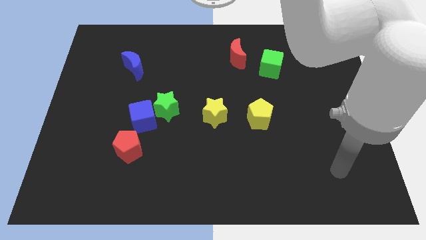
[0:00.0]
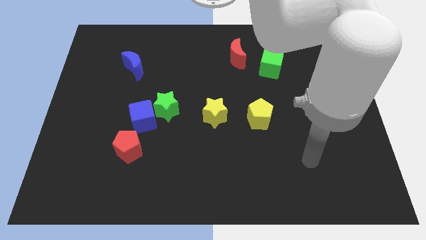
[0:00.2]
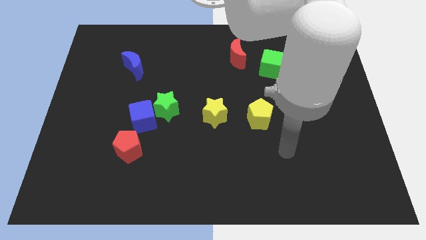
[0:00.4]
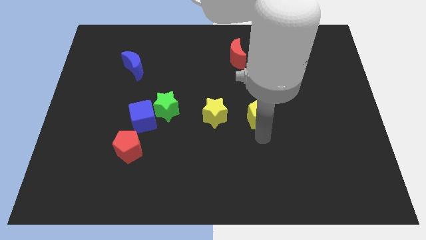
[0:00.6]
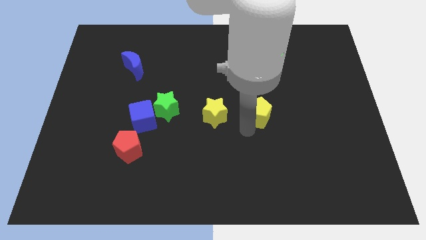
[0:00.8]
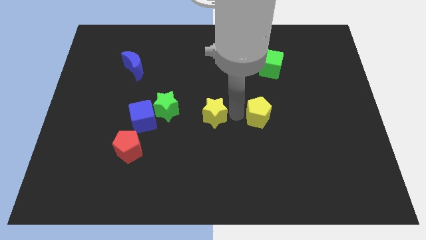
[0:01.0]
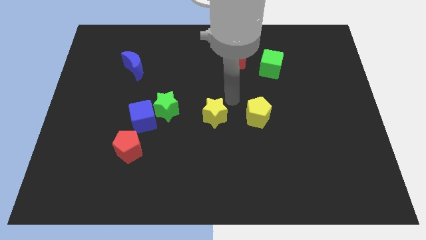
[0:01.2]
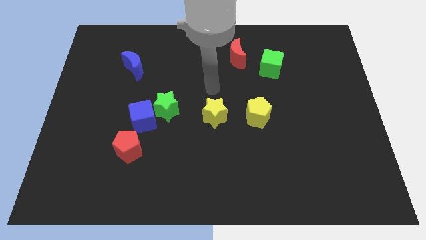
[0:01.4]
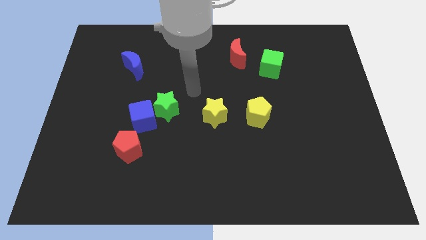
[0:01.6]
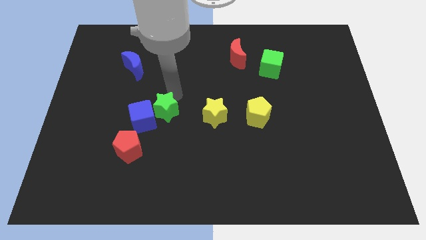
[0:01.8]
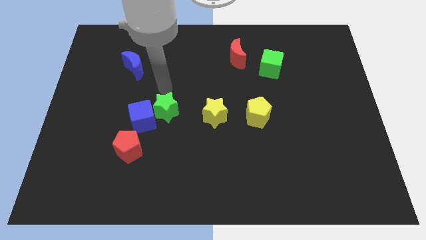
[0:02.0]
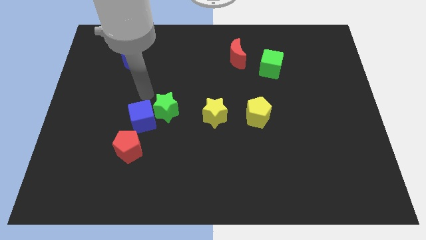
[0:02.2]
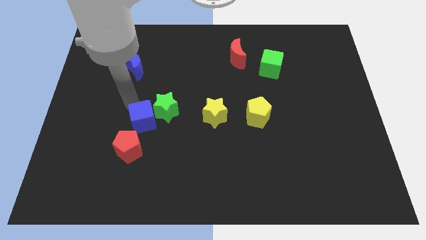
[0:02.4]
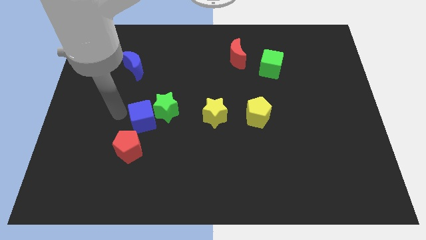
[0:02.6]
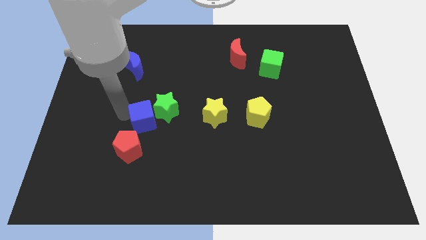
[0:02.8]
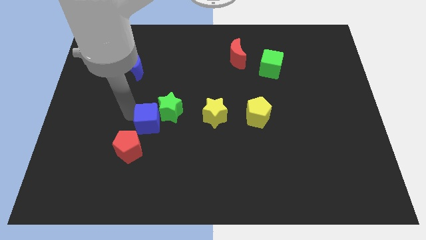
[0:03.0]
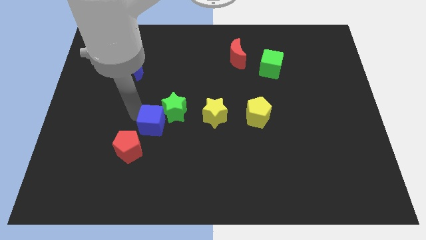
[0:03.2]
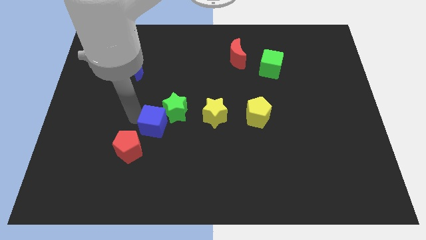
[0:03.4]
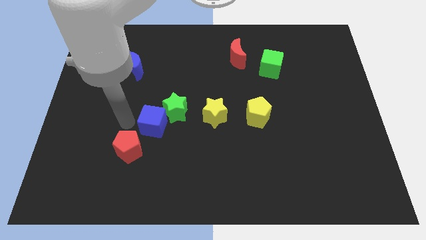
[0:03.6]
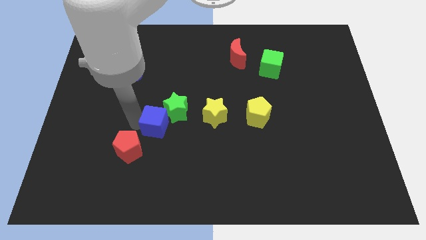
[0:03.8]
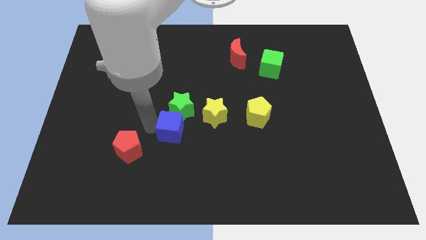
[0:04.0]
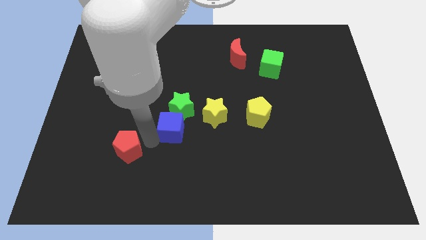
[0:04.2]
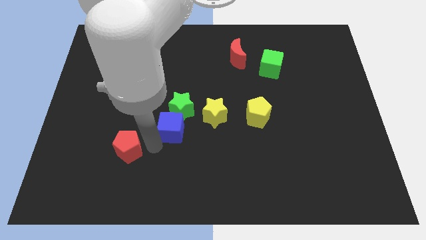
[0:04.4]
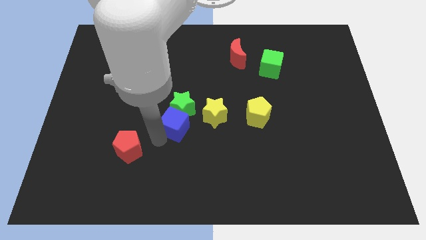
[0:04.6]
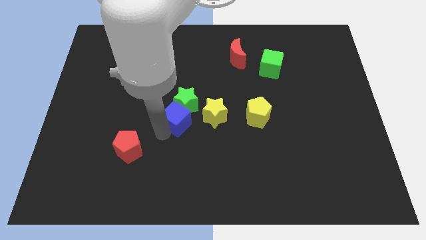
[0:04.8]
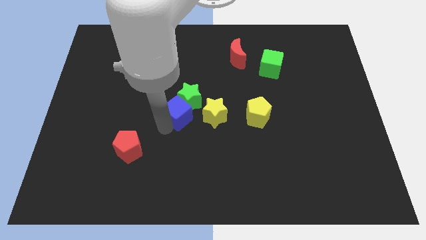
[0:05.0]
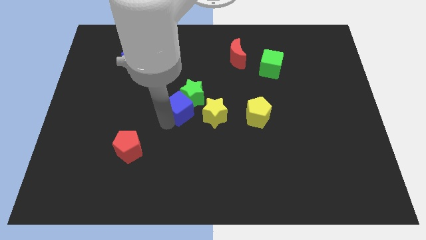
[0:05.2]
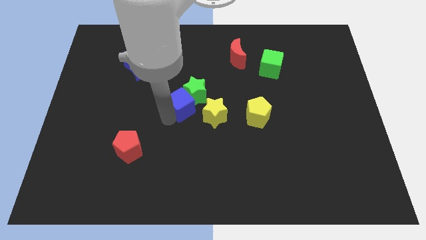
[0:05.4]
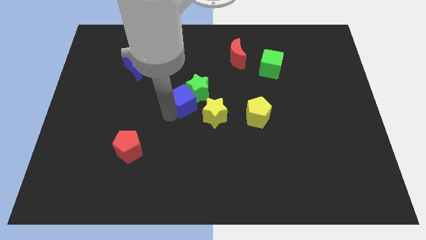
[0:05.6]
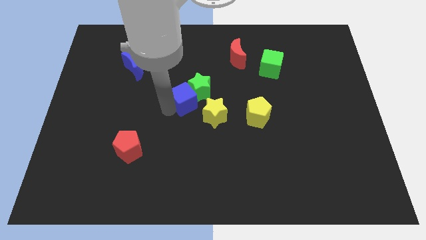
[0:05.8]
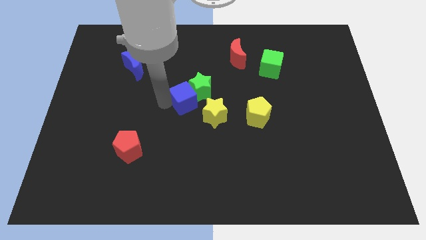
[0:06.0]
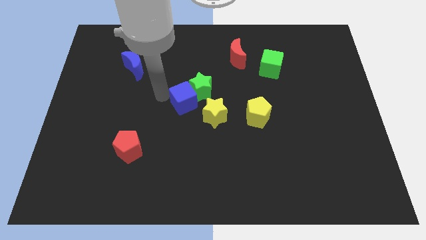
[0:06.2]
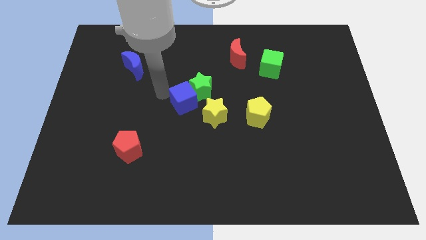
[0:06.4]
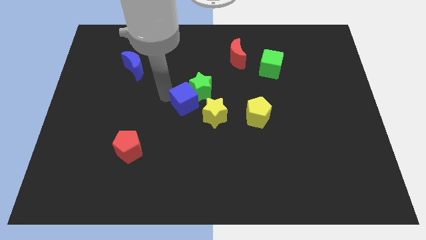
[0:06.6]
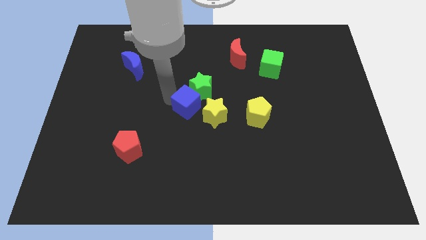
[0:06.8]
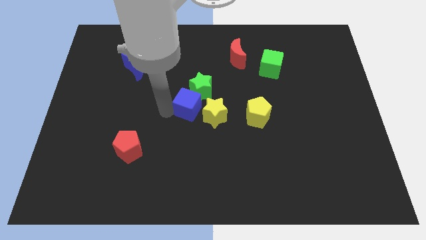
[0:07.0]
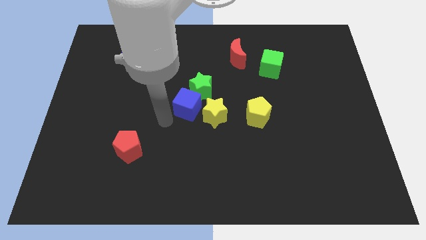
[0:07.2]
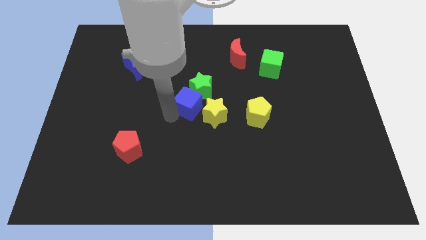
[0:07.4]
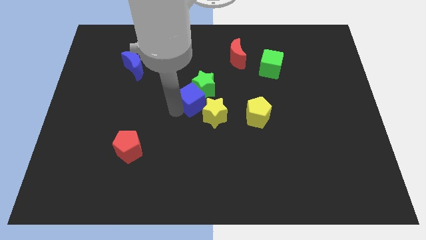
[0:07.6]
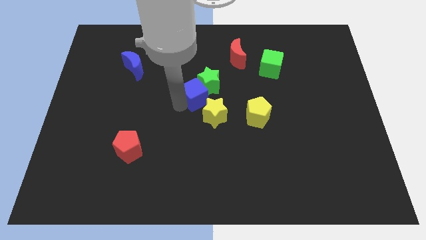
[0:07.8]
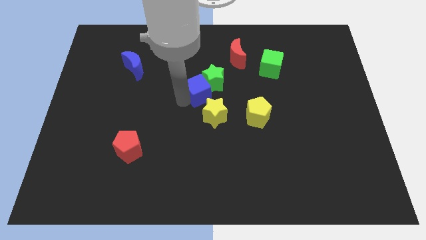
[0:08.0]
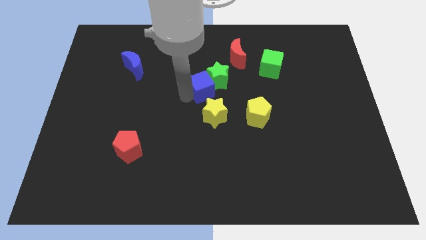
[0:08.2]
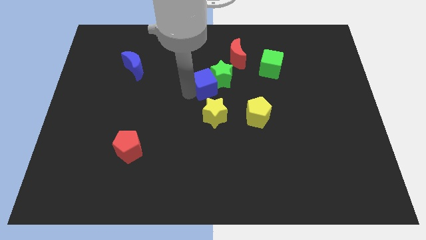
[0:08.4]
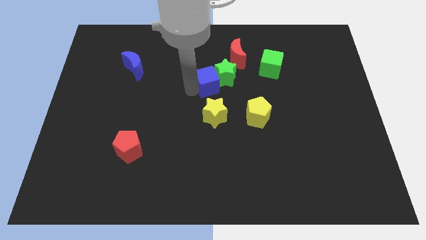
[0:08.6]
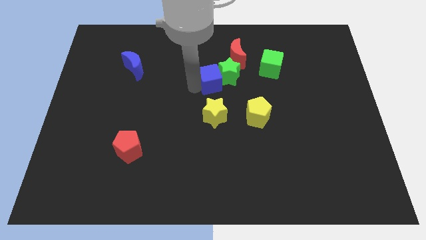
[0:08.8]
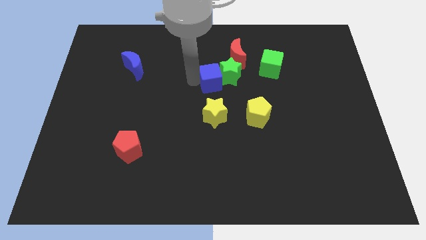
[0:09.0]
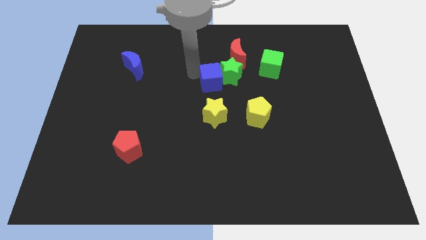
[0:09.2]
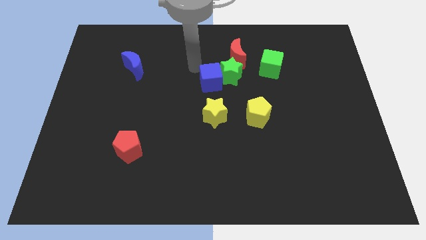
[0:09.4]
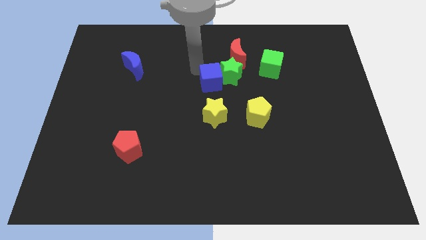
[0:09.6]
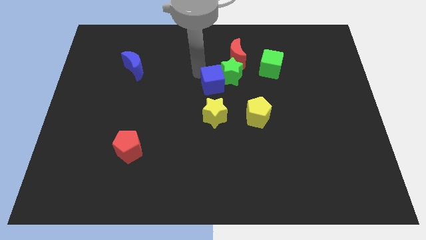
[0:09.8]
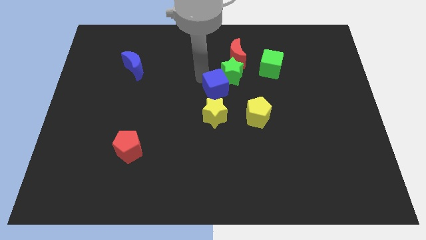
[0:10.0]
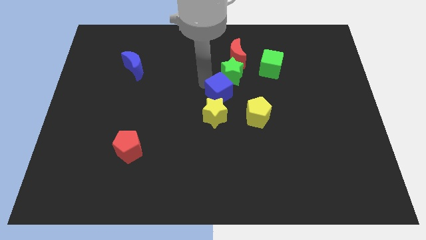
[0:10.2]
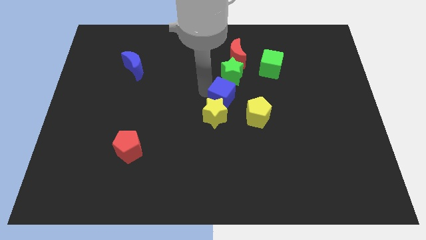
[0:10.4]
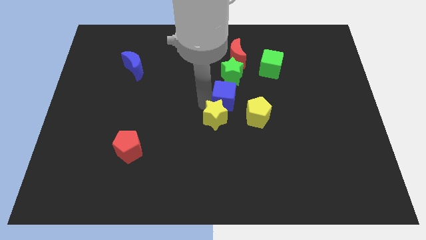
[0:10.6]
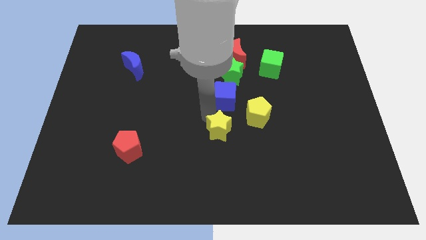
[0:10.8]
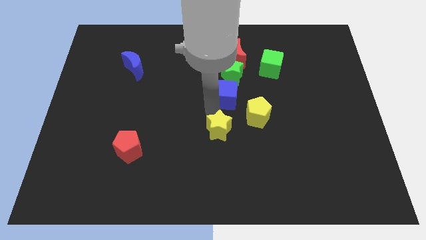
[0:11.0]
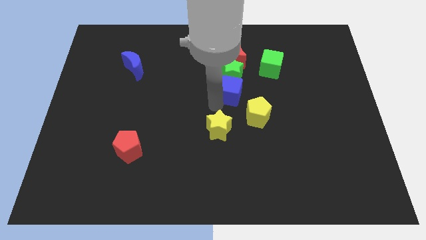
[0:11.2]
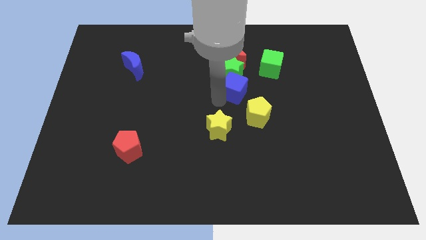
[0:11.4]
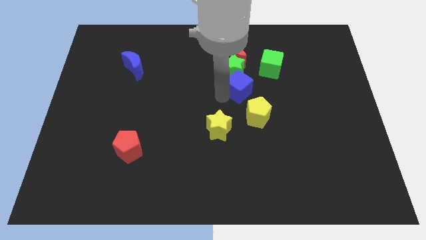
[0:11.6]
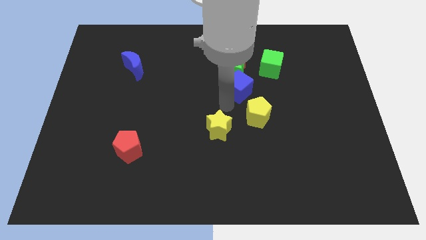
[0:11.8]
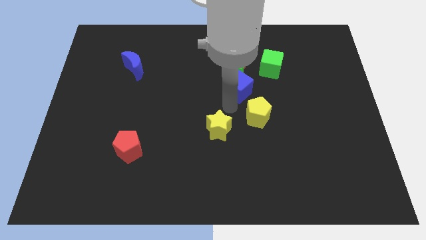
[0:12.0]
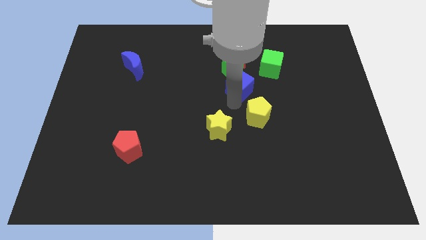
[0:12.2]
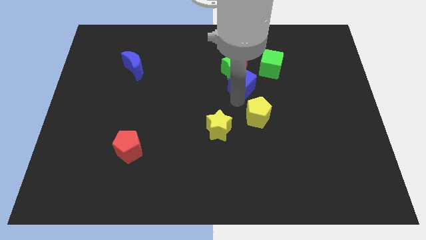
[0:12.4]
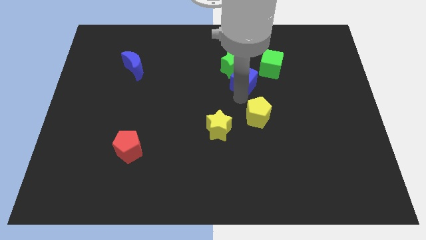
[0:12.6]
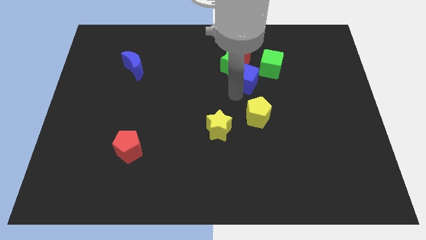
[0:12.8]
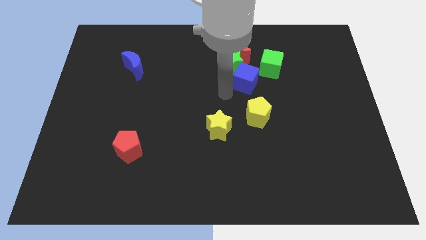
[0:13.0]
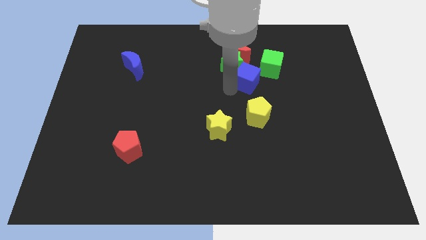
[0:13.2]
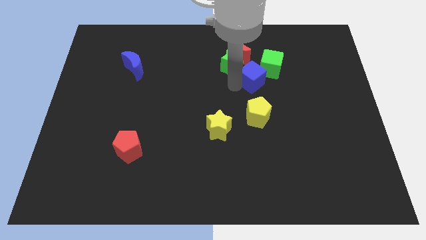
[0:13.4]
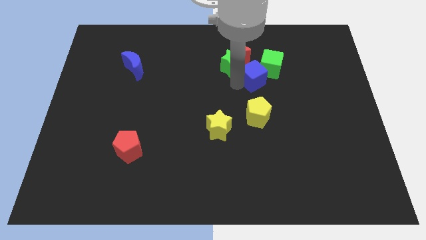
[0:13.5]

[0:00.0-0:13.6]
move the blue cube to the green cube
